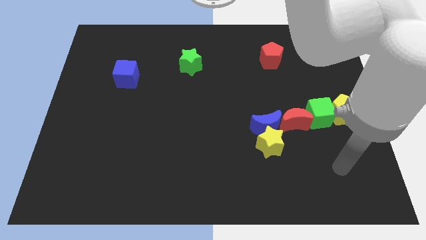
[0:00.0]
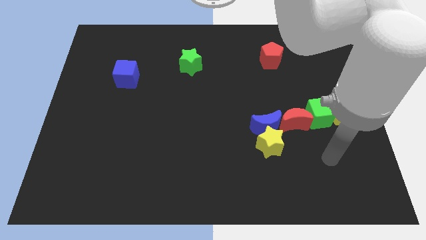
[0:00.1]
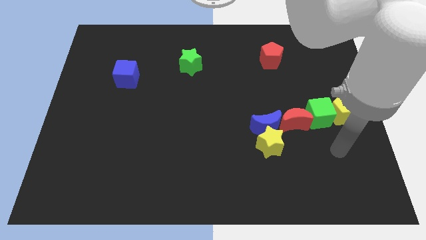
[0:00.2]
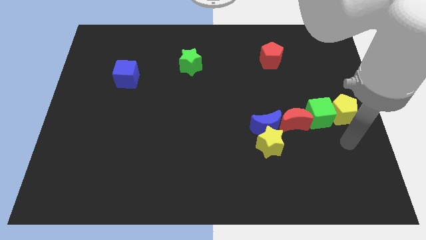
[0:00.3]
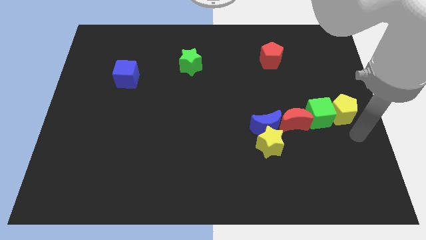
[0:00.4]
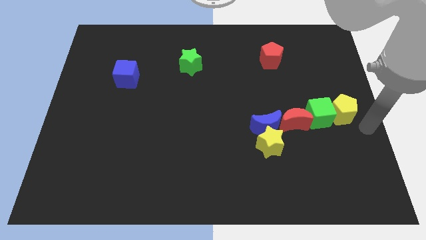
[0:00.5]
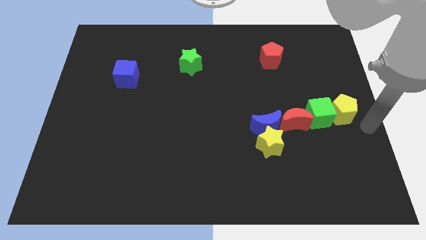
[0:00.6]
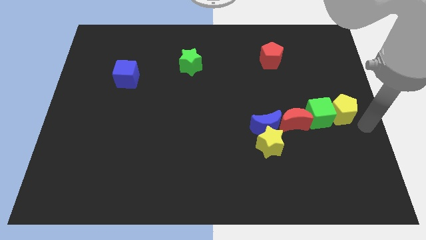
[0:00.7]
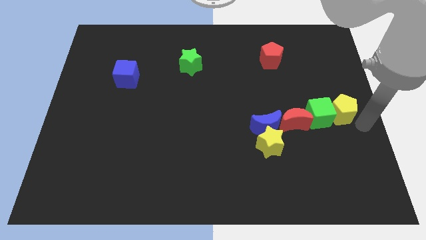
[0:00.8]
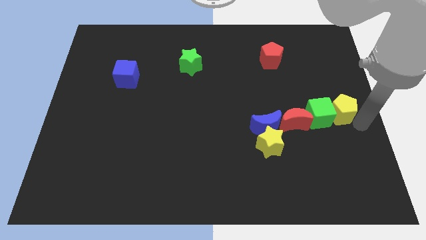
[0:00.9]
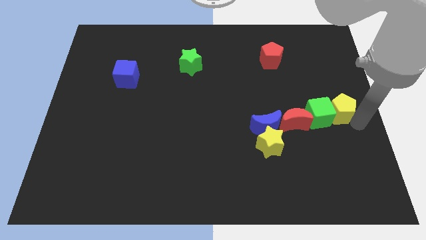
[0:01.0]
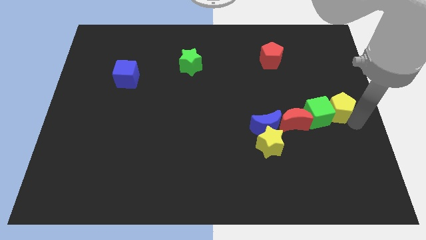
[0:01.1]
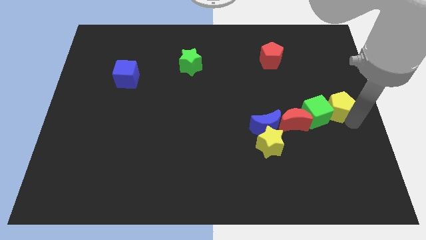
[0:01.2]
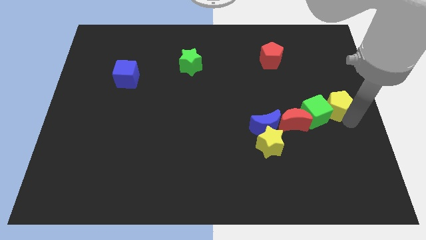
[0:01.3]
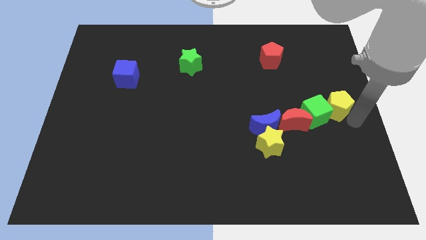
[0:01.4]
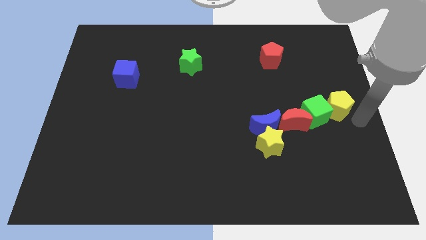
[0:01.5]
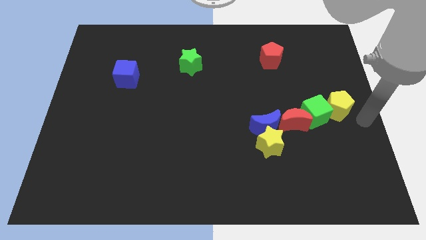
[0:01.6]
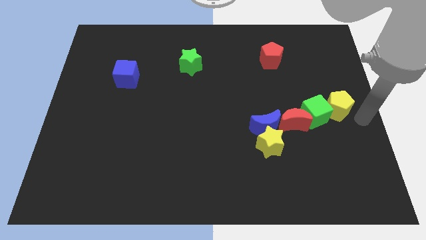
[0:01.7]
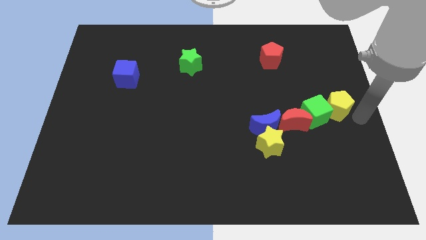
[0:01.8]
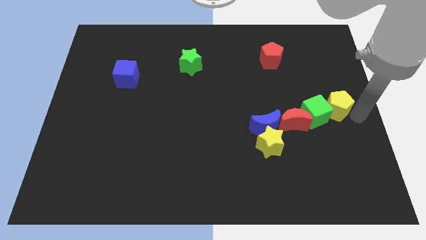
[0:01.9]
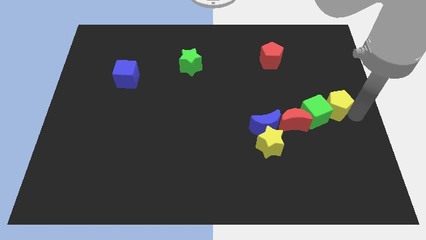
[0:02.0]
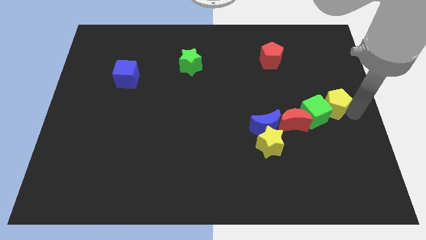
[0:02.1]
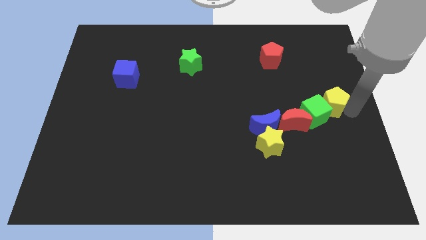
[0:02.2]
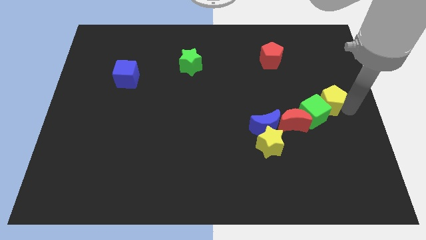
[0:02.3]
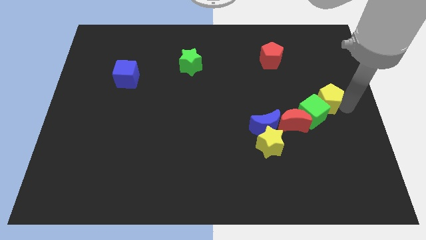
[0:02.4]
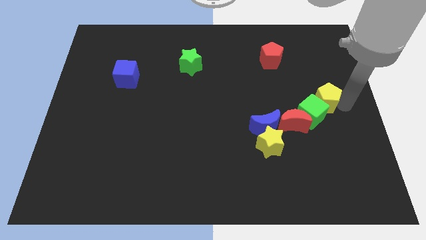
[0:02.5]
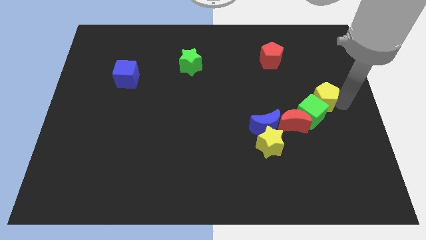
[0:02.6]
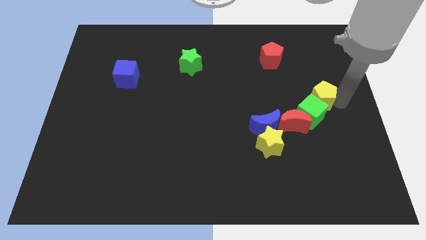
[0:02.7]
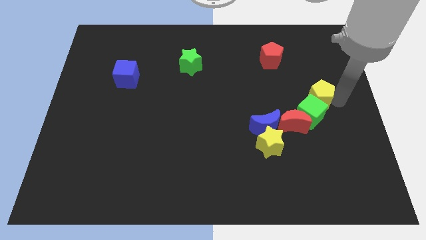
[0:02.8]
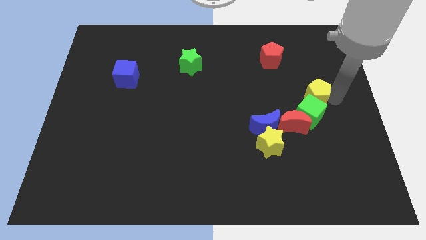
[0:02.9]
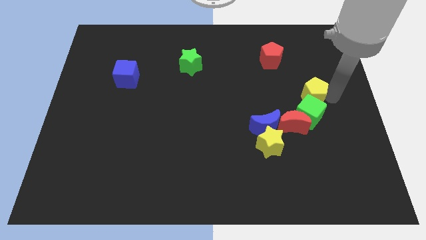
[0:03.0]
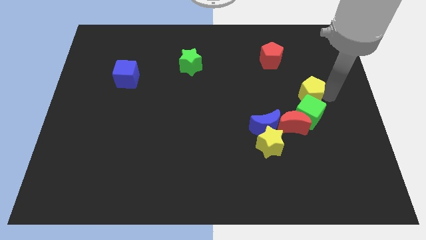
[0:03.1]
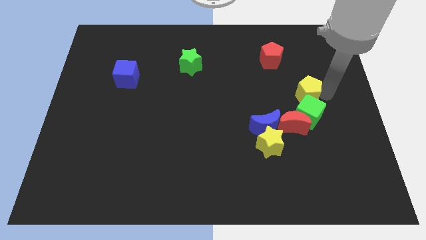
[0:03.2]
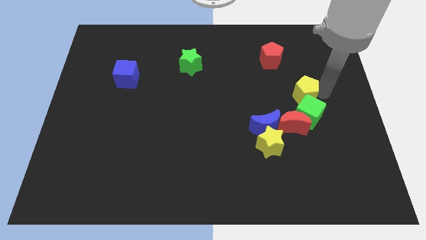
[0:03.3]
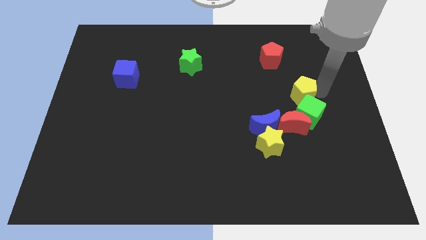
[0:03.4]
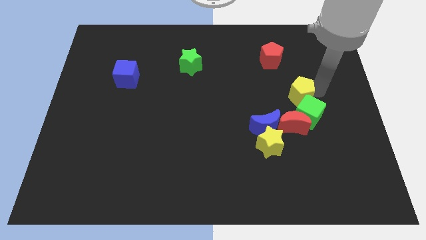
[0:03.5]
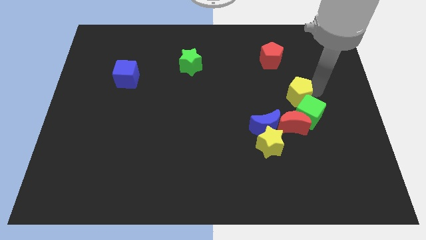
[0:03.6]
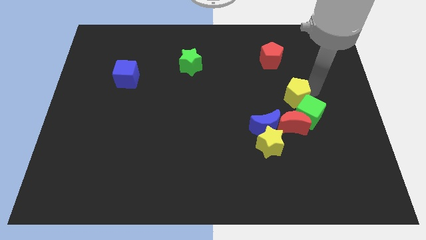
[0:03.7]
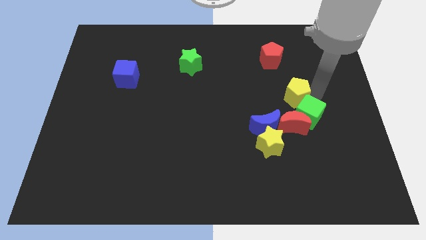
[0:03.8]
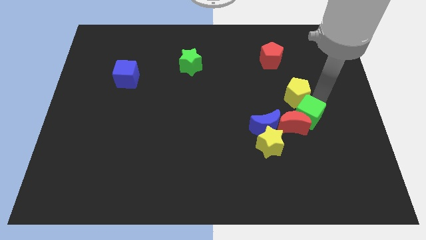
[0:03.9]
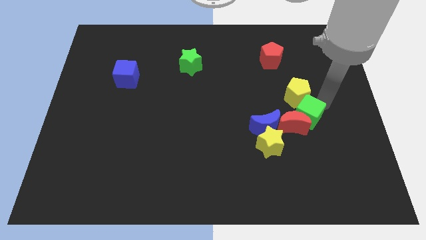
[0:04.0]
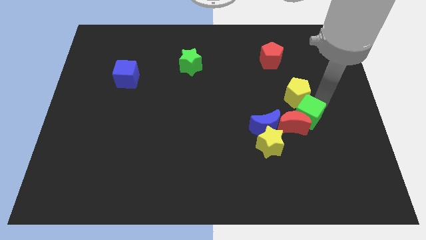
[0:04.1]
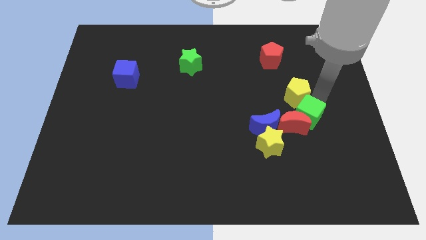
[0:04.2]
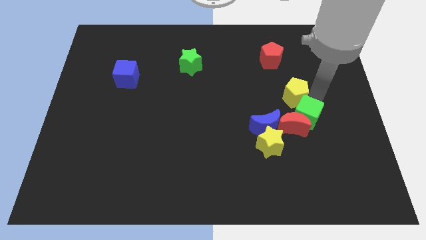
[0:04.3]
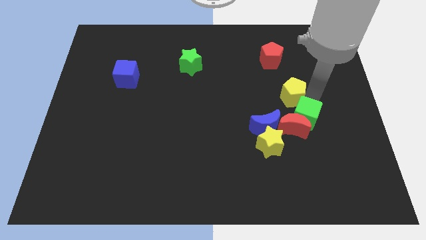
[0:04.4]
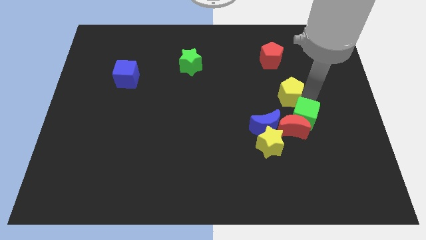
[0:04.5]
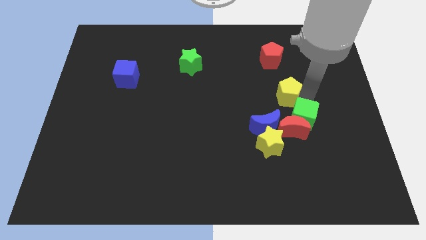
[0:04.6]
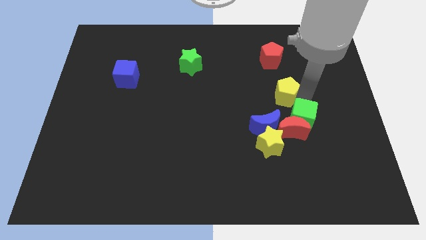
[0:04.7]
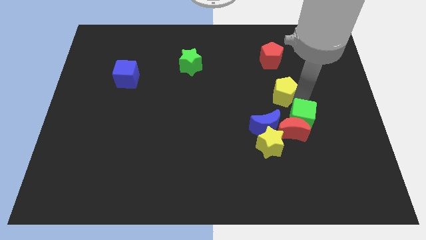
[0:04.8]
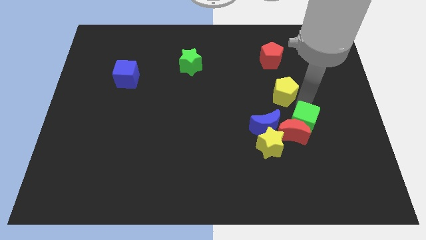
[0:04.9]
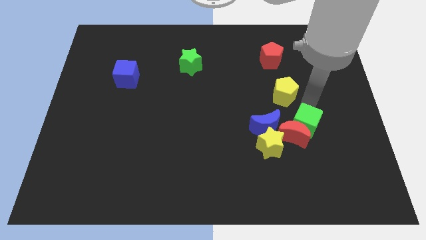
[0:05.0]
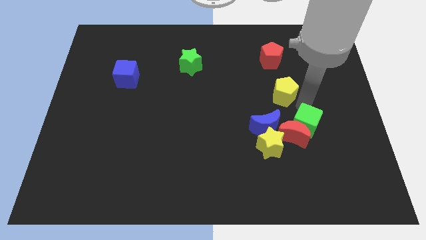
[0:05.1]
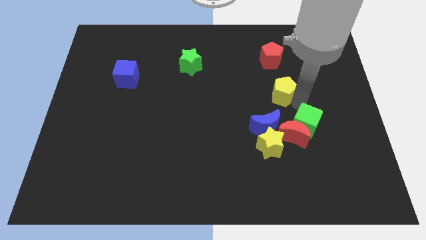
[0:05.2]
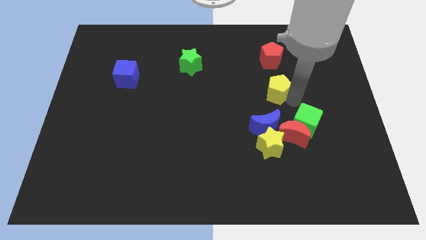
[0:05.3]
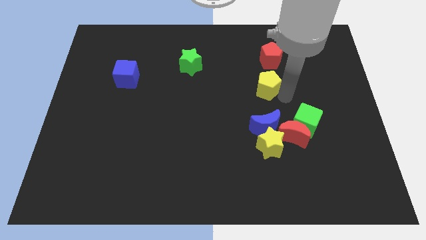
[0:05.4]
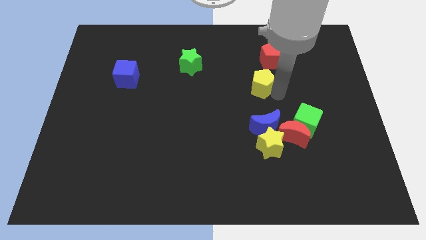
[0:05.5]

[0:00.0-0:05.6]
put the yellow pentagon diagonally down and to the left of the red pentagon

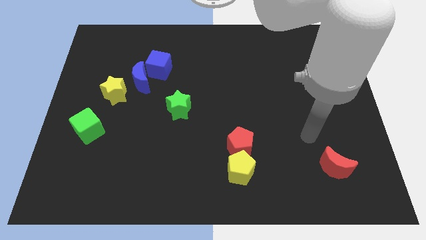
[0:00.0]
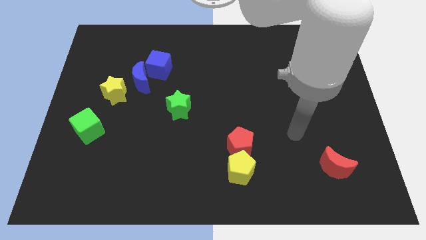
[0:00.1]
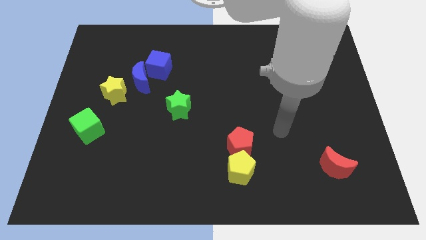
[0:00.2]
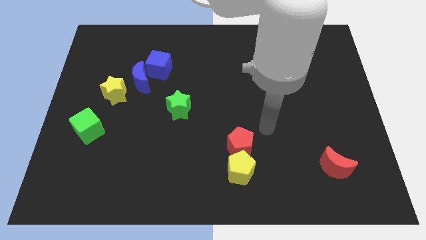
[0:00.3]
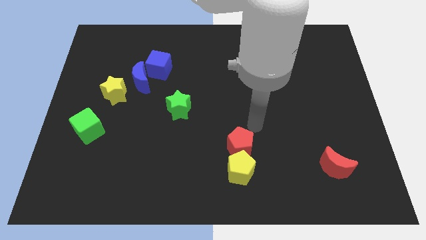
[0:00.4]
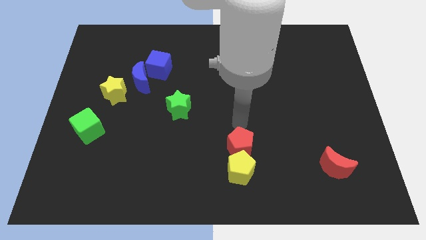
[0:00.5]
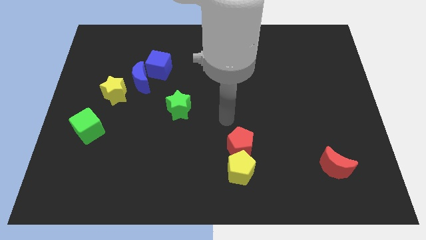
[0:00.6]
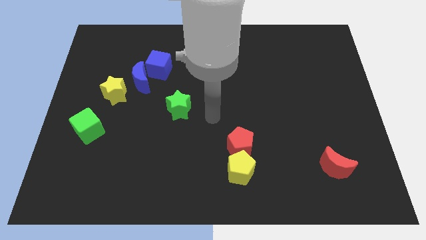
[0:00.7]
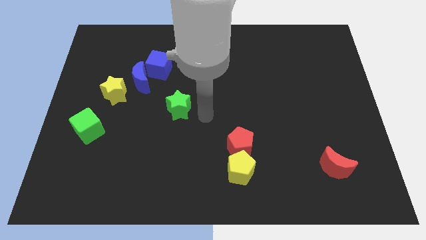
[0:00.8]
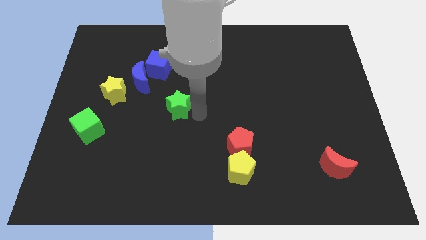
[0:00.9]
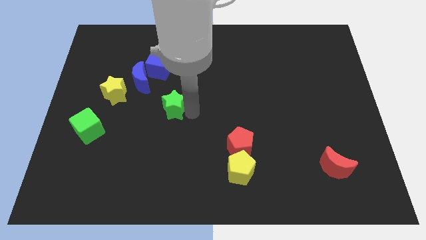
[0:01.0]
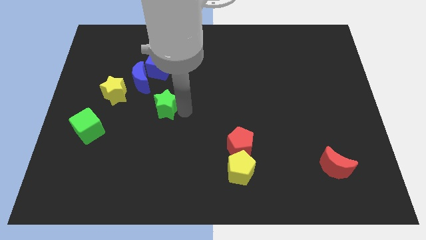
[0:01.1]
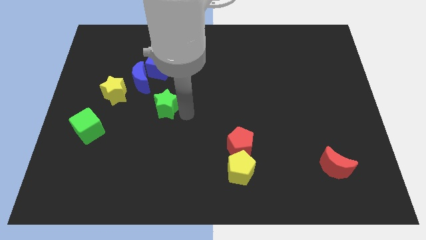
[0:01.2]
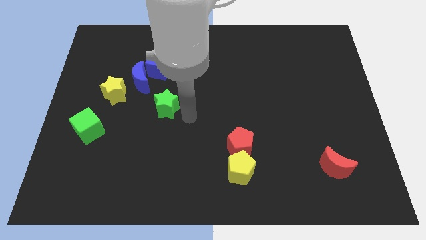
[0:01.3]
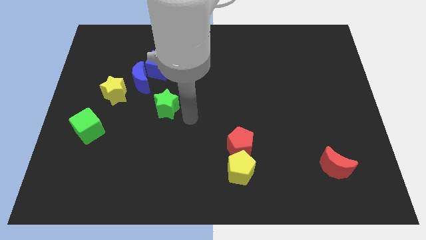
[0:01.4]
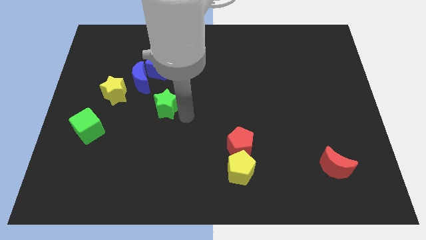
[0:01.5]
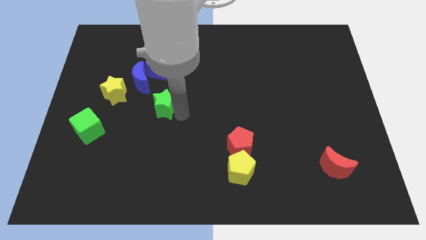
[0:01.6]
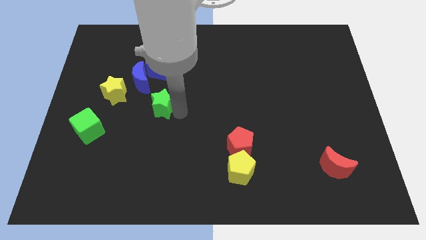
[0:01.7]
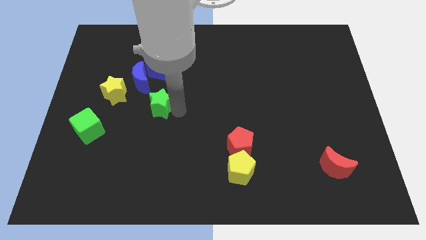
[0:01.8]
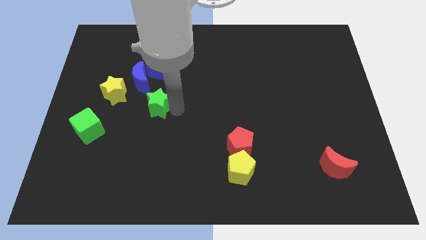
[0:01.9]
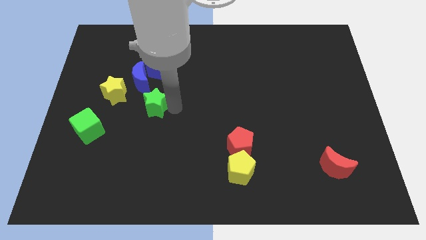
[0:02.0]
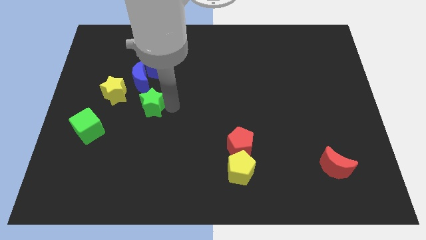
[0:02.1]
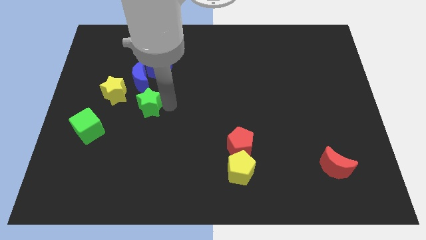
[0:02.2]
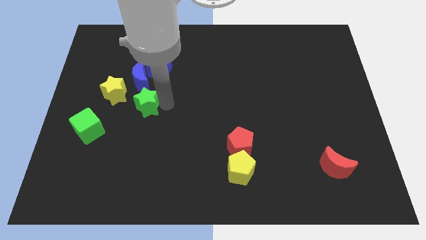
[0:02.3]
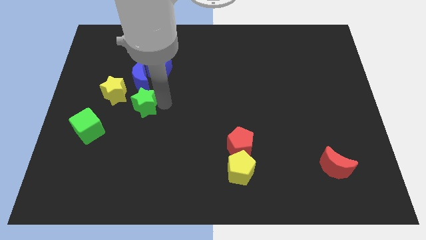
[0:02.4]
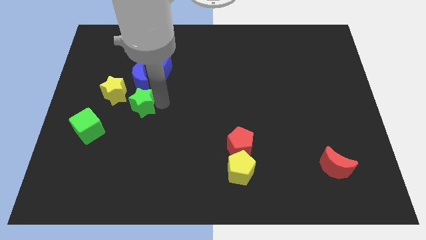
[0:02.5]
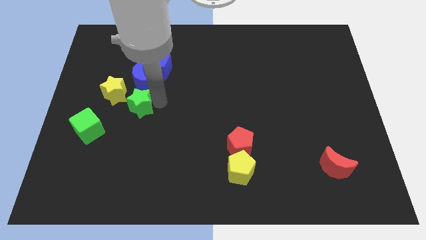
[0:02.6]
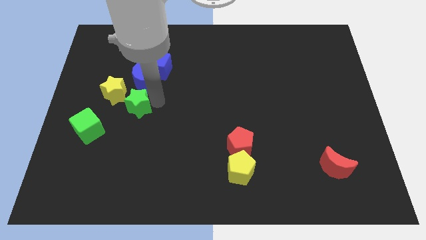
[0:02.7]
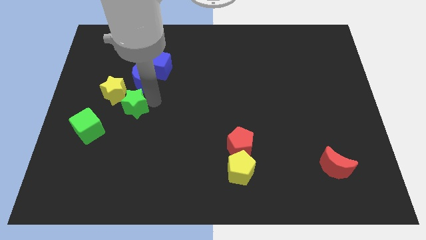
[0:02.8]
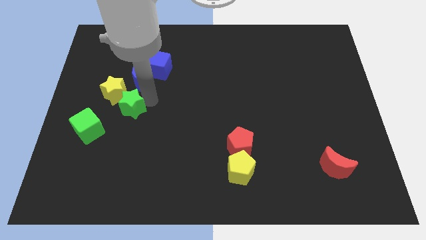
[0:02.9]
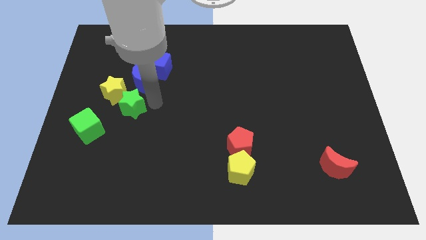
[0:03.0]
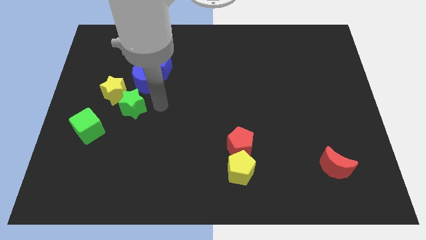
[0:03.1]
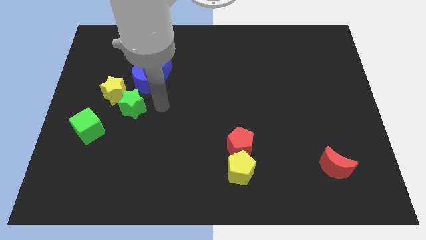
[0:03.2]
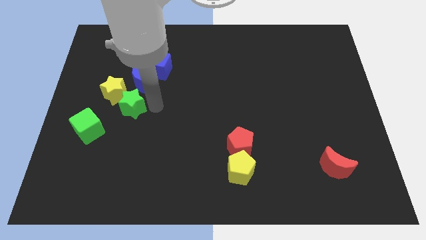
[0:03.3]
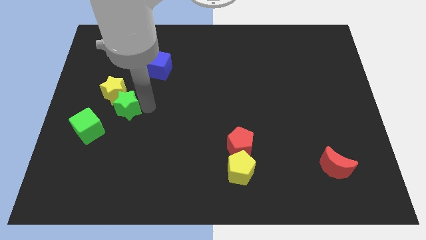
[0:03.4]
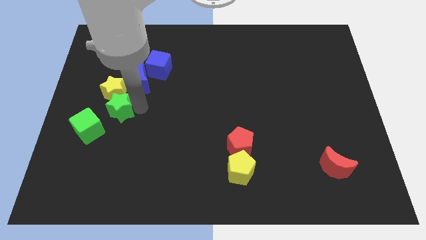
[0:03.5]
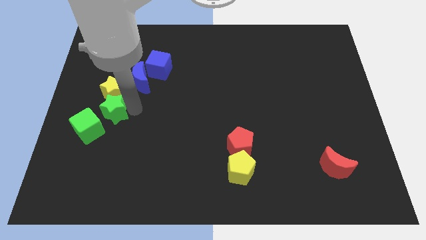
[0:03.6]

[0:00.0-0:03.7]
push the green star diagonally down and to the left of the yellow star
